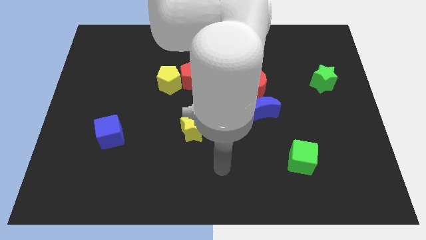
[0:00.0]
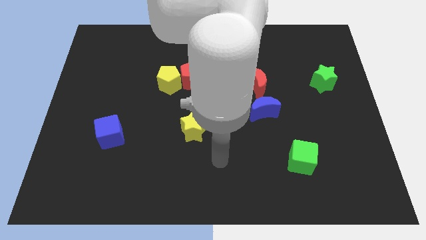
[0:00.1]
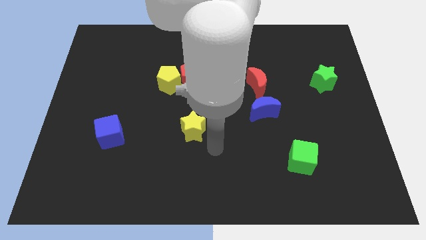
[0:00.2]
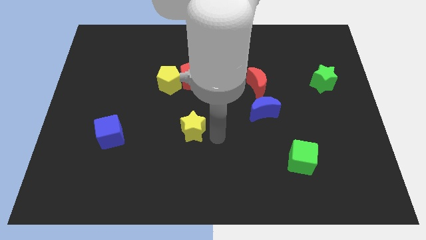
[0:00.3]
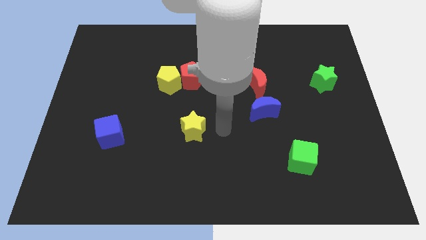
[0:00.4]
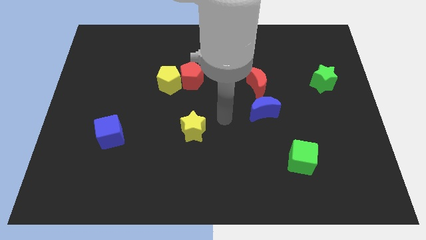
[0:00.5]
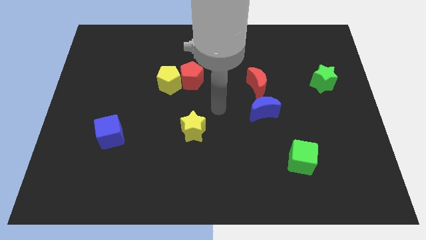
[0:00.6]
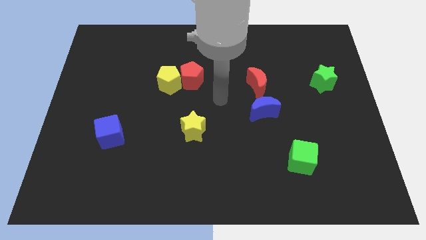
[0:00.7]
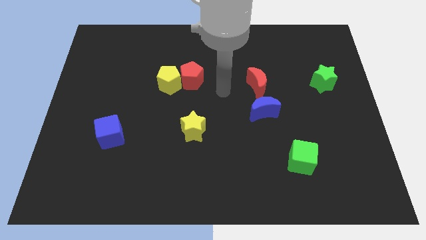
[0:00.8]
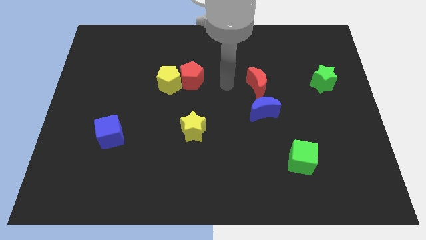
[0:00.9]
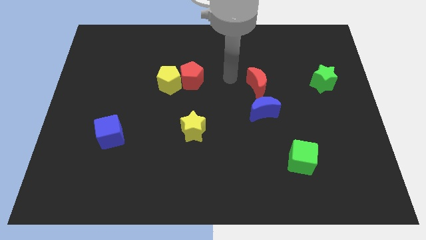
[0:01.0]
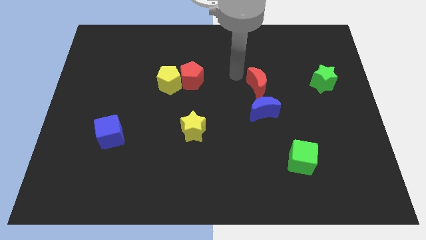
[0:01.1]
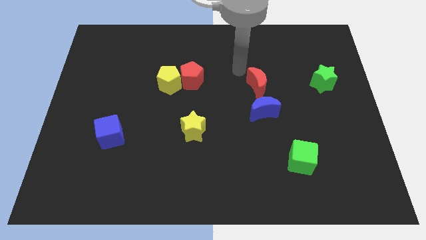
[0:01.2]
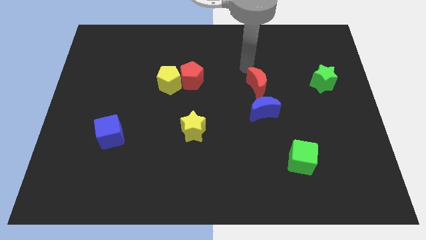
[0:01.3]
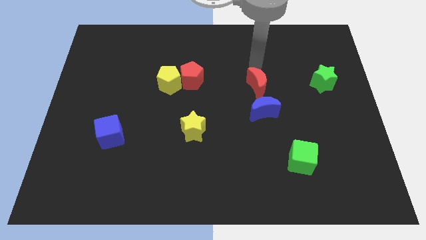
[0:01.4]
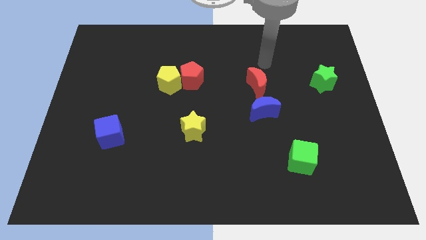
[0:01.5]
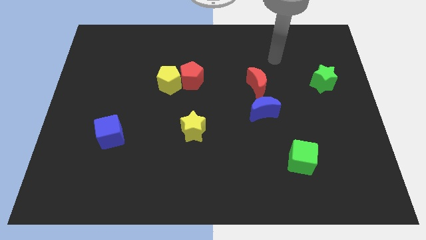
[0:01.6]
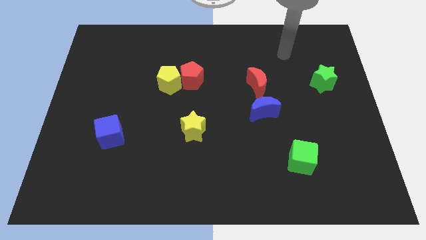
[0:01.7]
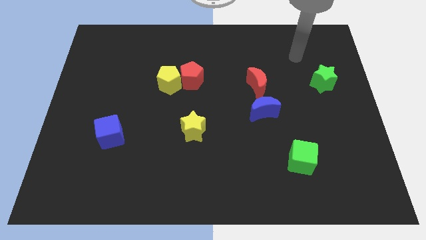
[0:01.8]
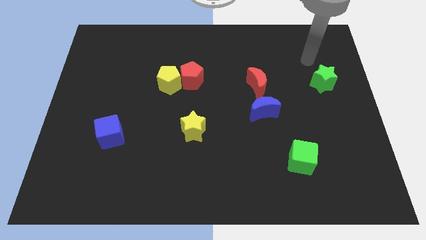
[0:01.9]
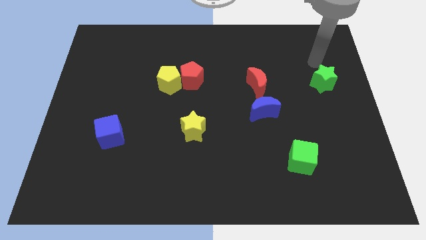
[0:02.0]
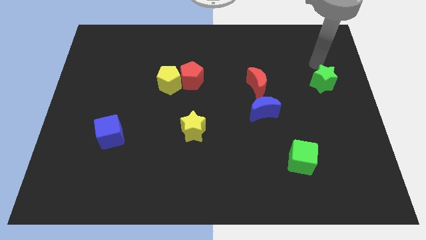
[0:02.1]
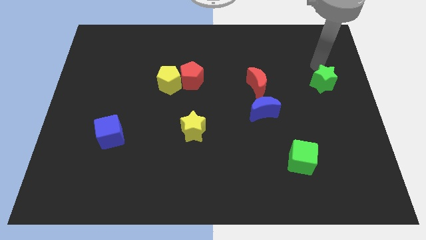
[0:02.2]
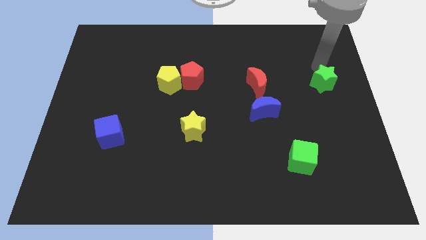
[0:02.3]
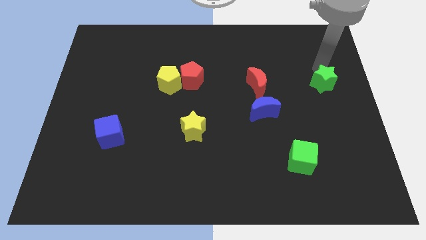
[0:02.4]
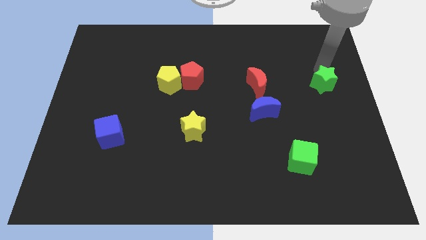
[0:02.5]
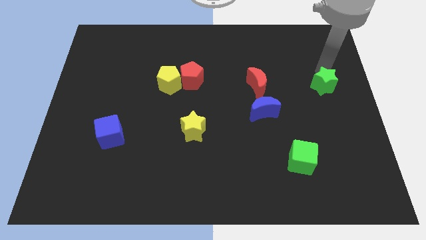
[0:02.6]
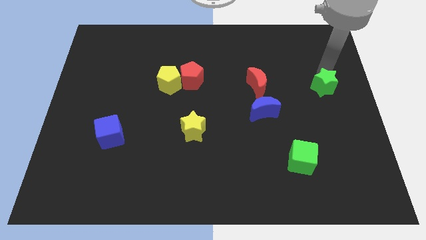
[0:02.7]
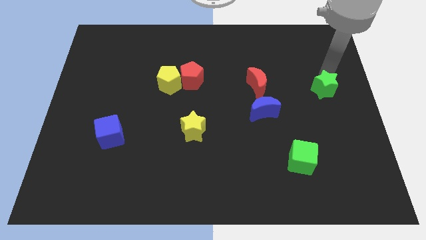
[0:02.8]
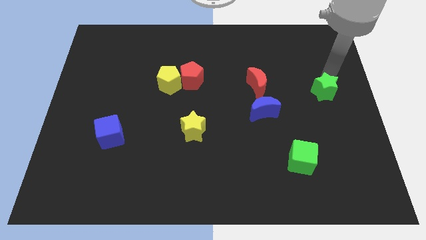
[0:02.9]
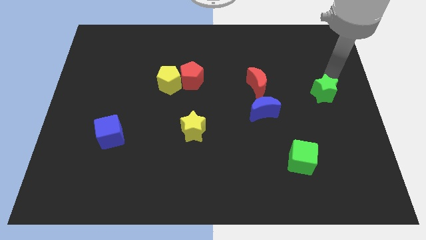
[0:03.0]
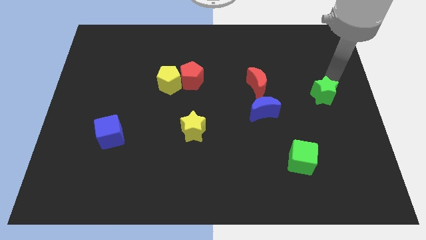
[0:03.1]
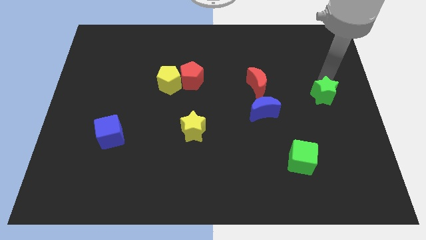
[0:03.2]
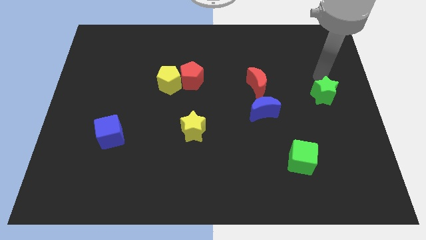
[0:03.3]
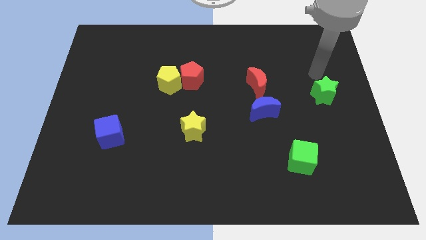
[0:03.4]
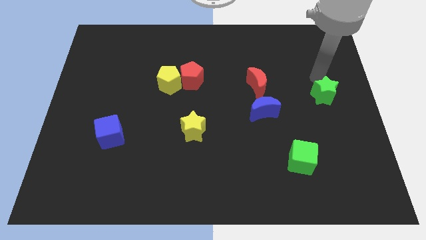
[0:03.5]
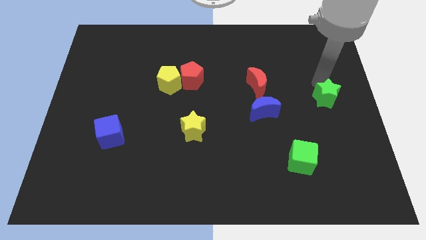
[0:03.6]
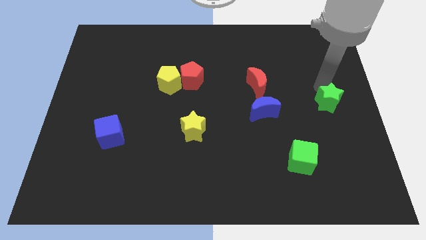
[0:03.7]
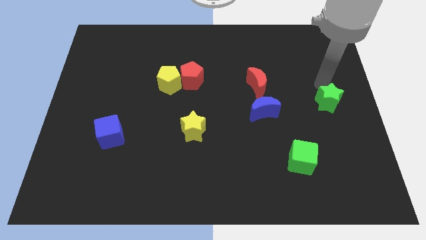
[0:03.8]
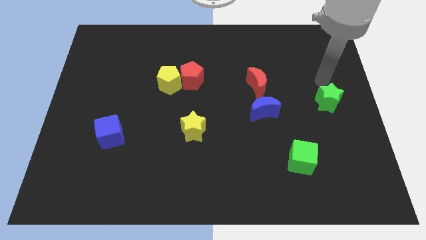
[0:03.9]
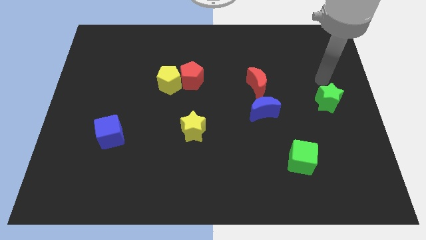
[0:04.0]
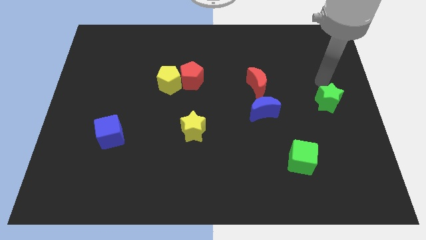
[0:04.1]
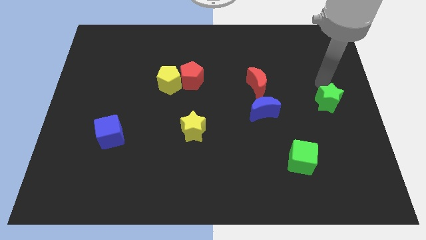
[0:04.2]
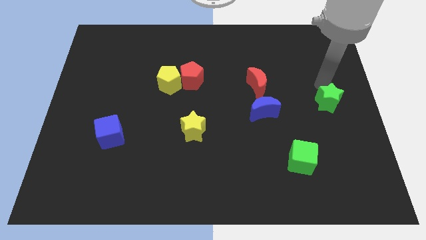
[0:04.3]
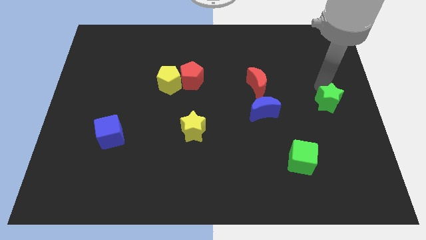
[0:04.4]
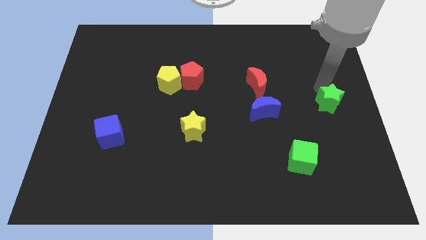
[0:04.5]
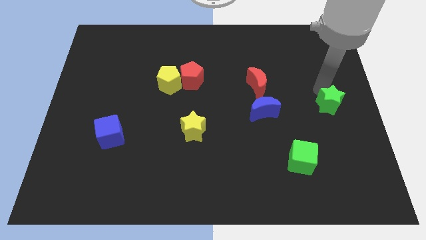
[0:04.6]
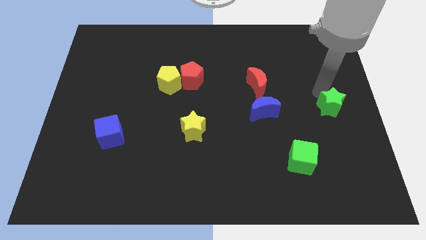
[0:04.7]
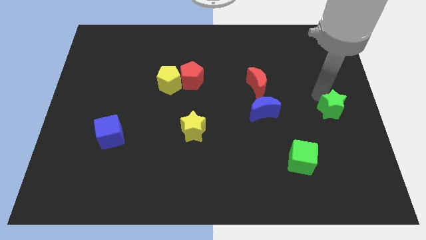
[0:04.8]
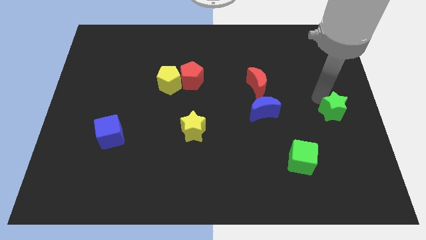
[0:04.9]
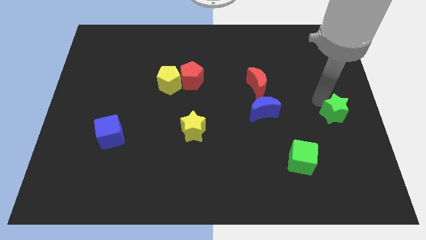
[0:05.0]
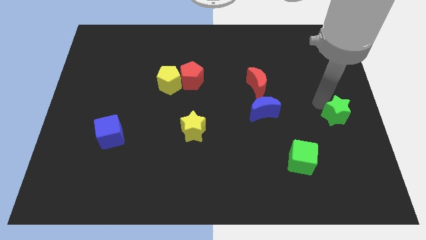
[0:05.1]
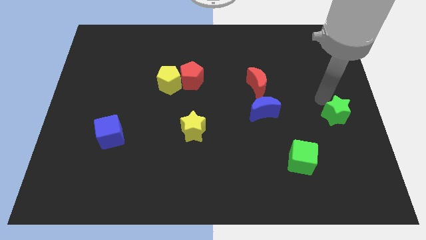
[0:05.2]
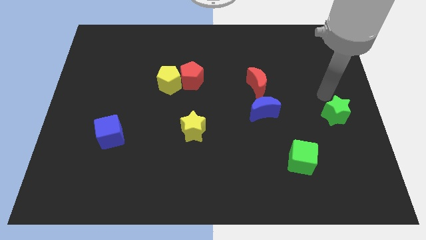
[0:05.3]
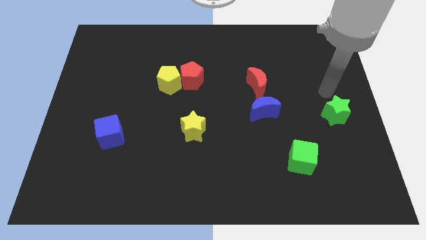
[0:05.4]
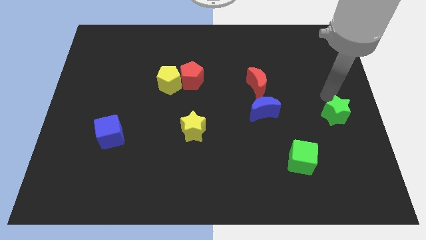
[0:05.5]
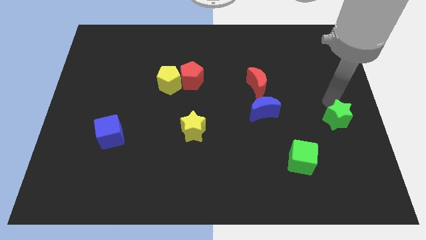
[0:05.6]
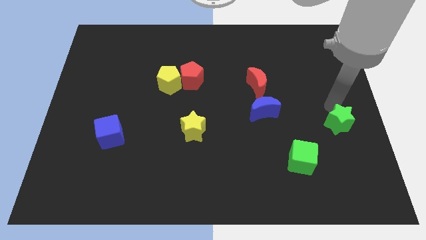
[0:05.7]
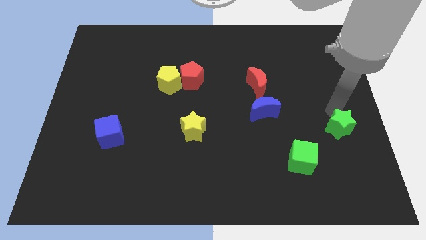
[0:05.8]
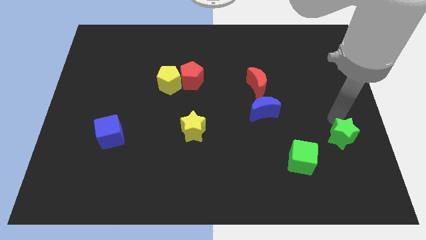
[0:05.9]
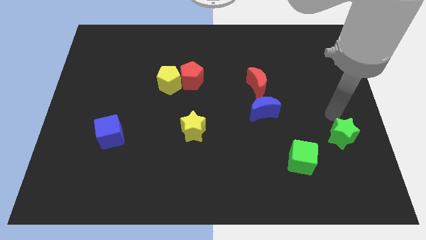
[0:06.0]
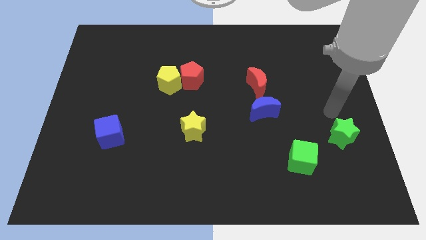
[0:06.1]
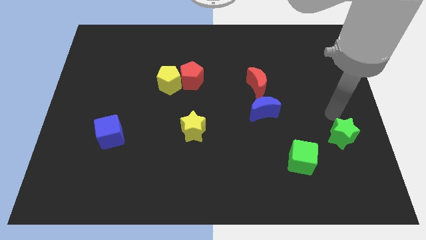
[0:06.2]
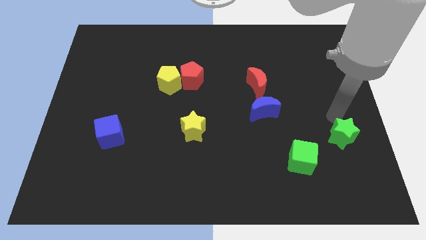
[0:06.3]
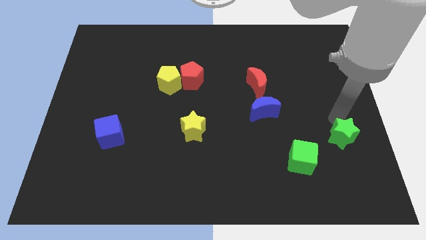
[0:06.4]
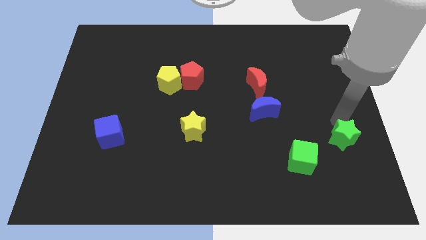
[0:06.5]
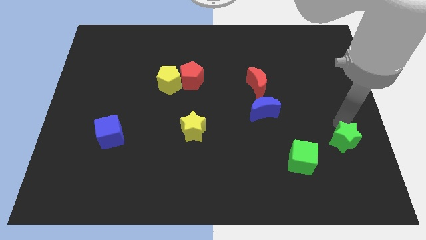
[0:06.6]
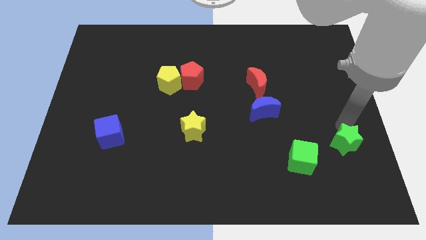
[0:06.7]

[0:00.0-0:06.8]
put the green star to the right side of the green cube
